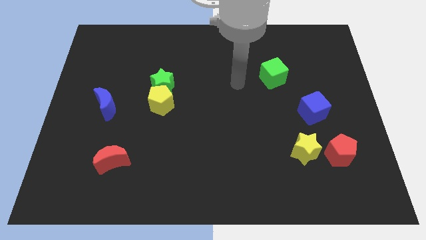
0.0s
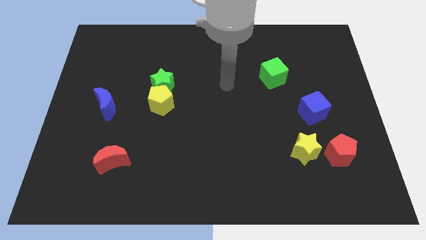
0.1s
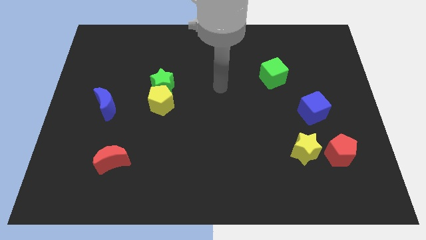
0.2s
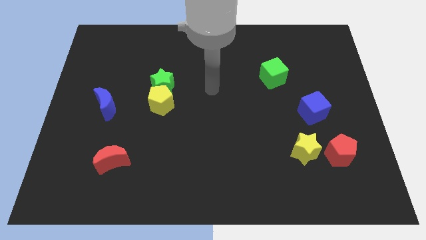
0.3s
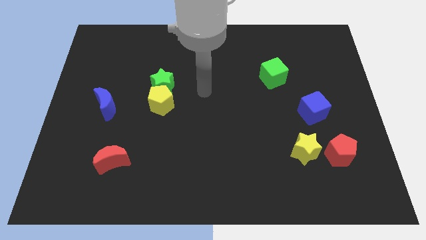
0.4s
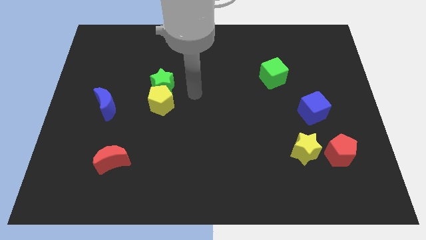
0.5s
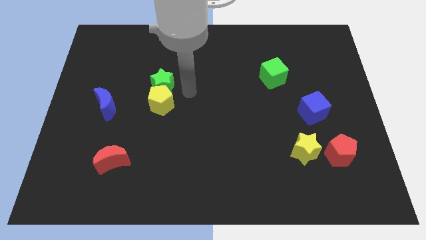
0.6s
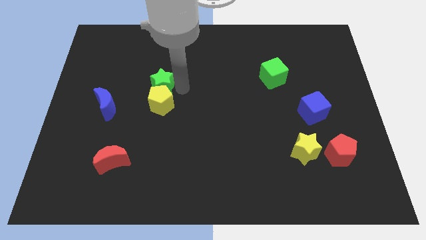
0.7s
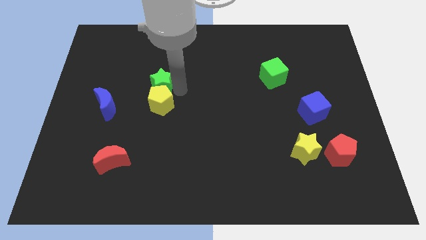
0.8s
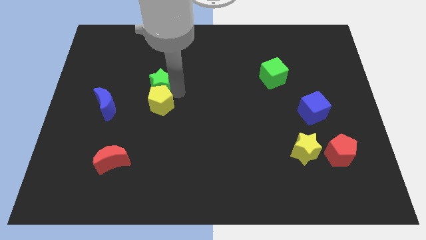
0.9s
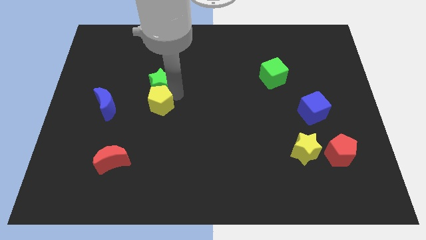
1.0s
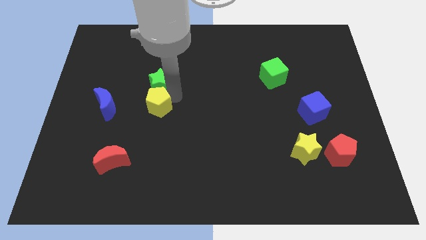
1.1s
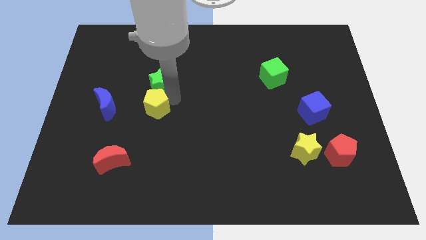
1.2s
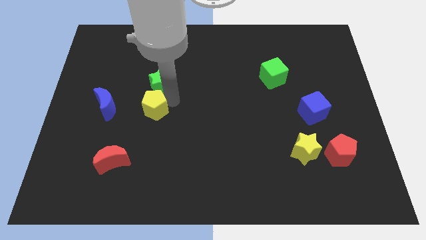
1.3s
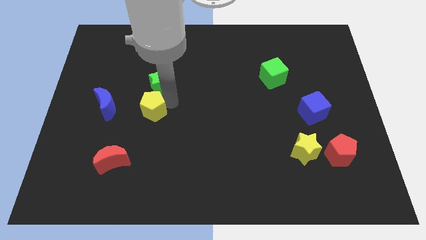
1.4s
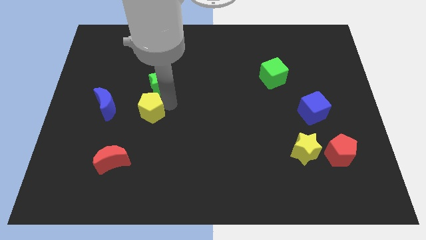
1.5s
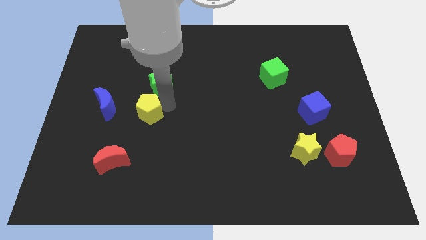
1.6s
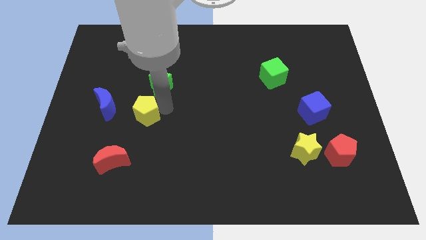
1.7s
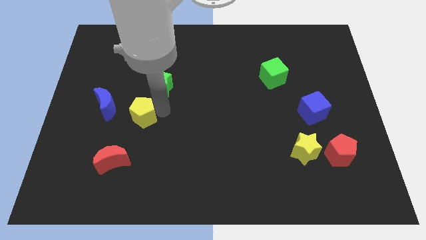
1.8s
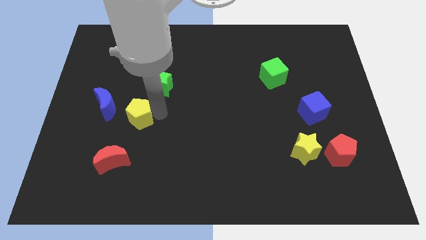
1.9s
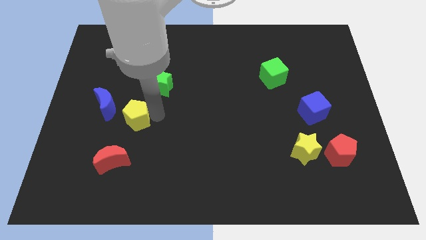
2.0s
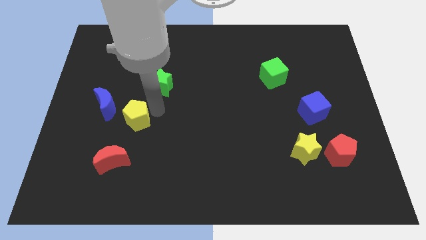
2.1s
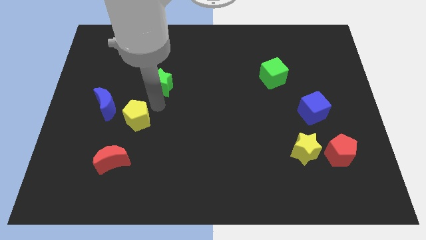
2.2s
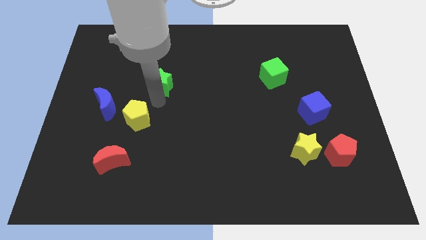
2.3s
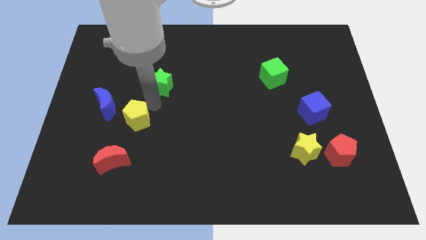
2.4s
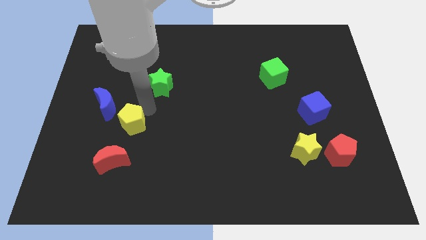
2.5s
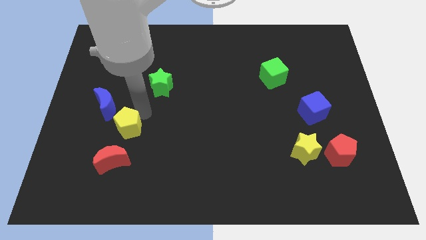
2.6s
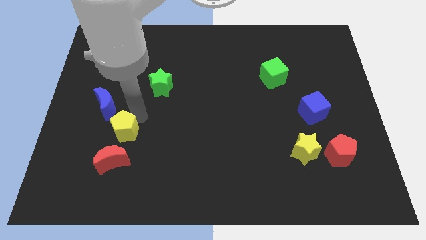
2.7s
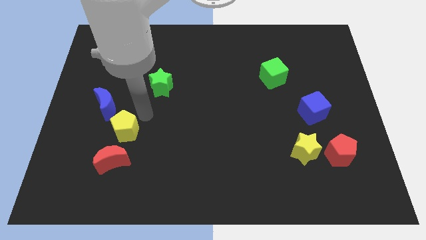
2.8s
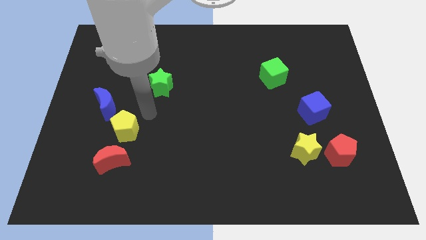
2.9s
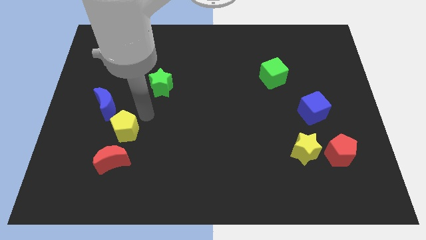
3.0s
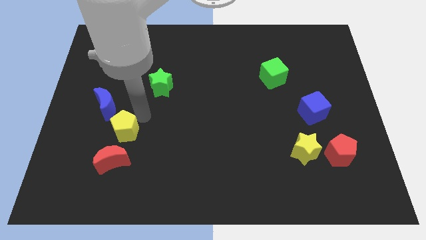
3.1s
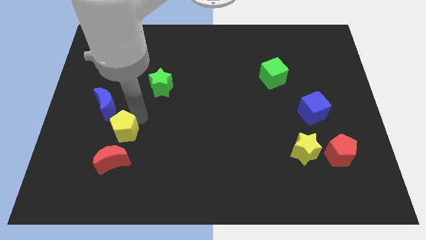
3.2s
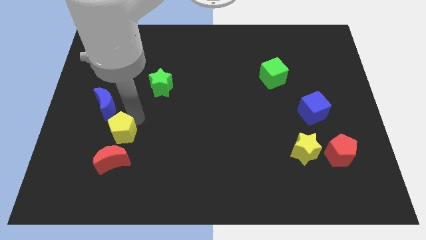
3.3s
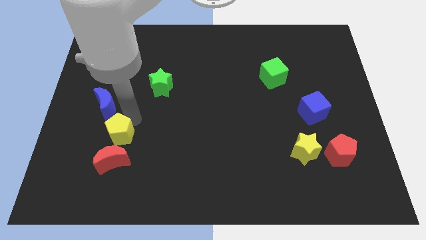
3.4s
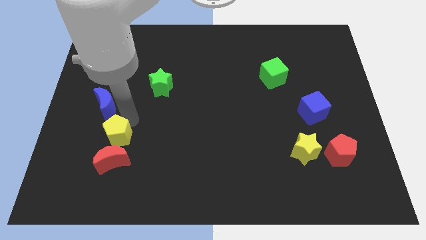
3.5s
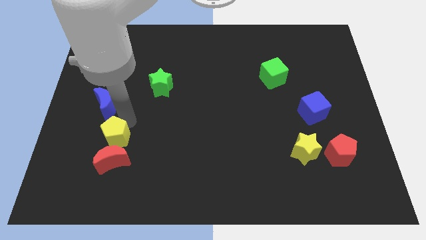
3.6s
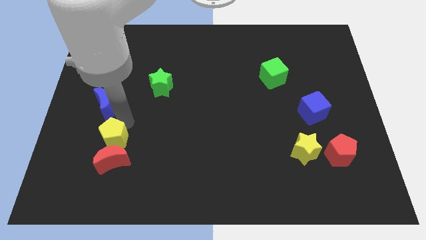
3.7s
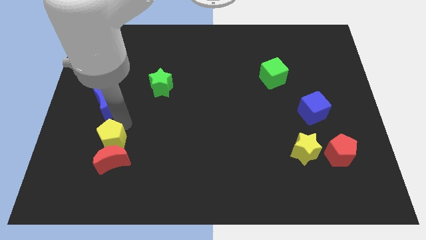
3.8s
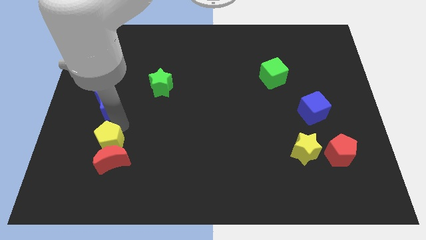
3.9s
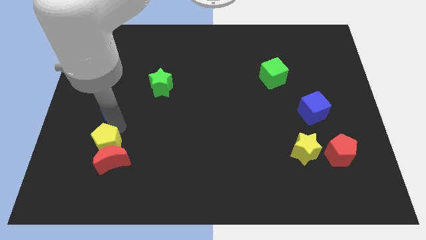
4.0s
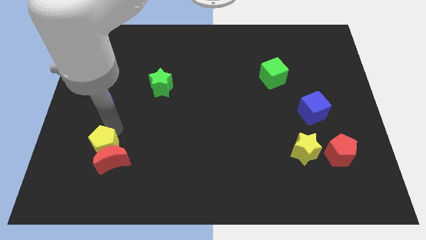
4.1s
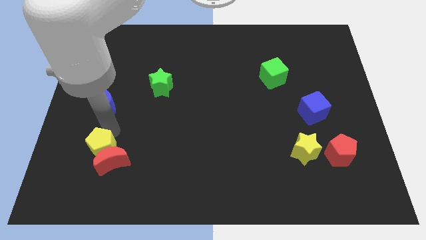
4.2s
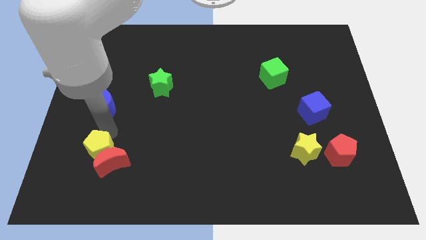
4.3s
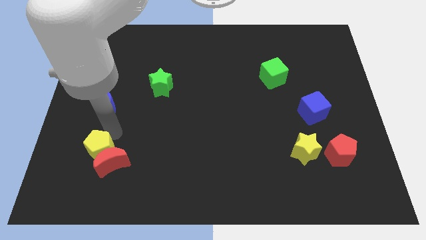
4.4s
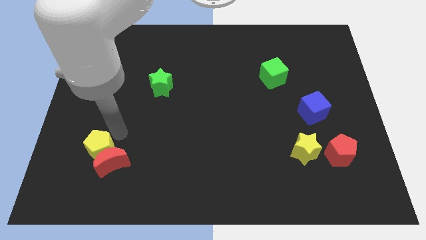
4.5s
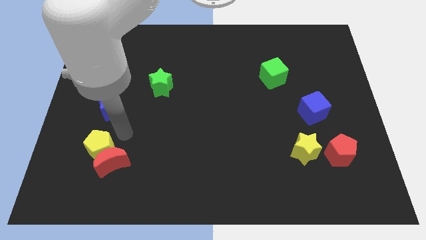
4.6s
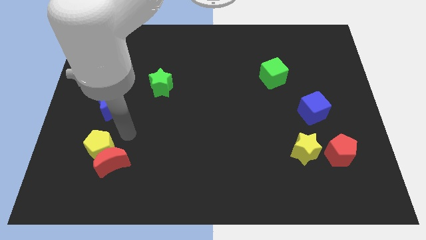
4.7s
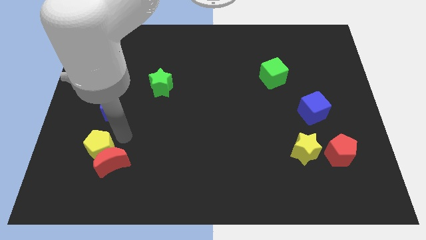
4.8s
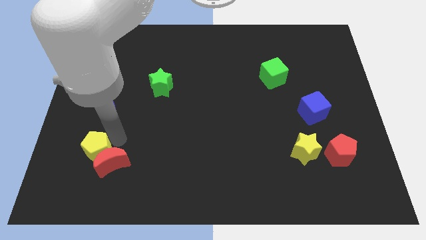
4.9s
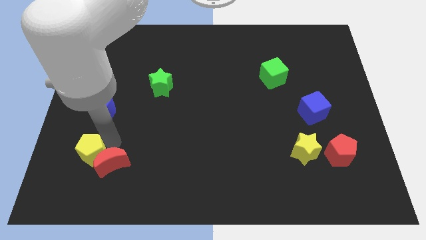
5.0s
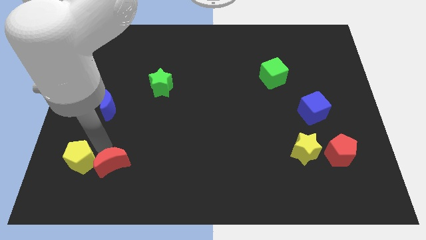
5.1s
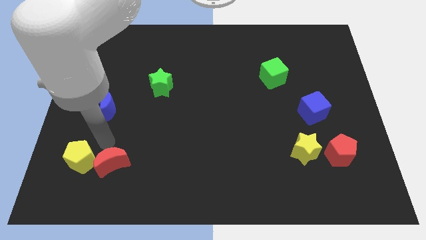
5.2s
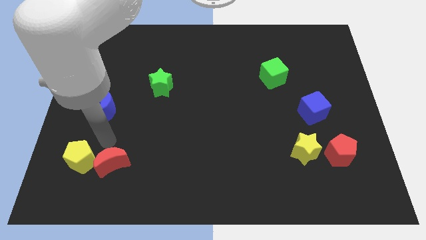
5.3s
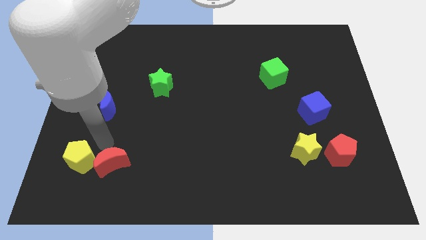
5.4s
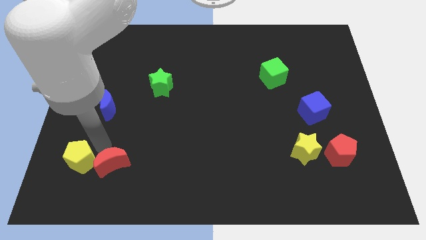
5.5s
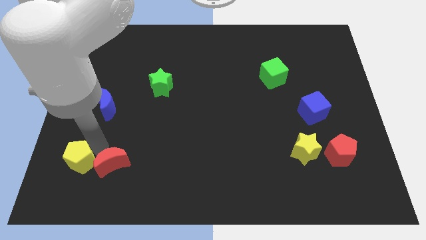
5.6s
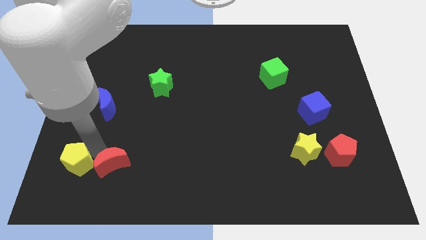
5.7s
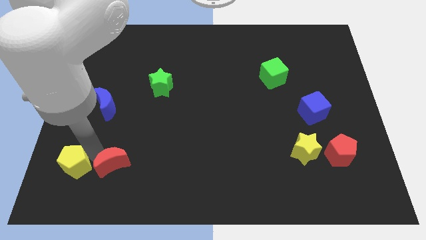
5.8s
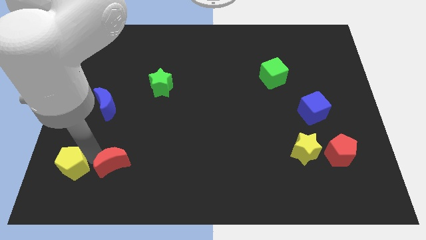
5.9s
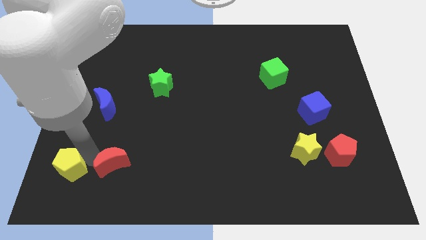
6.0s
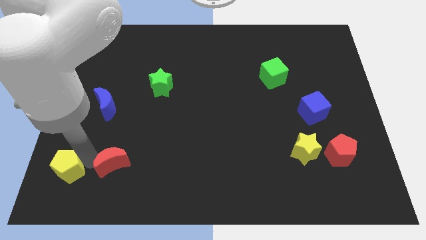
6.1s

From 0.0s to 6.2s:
push the yellow pentagon to the bottom left corner

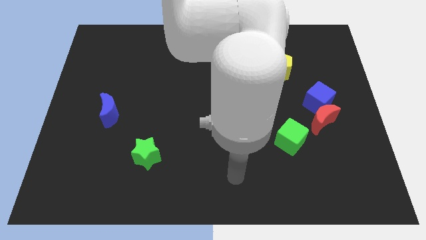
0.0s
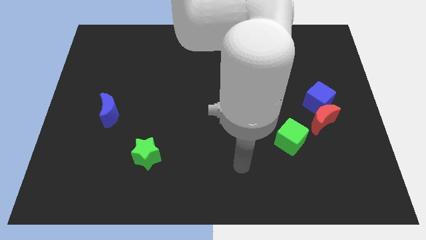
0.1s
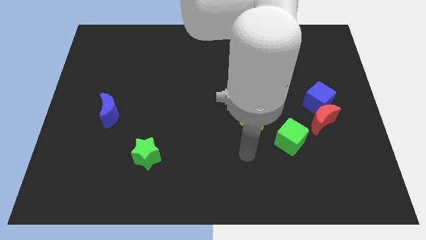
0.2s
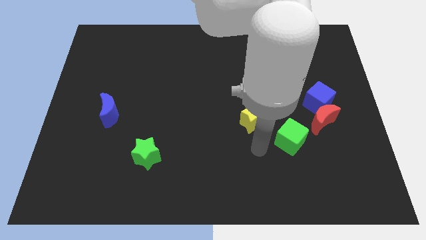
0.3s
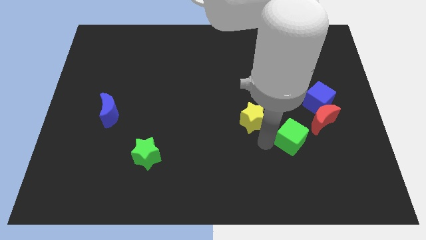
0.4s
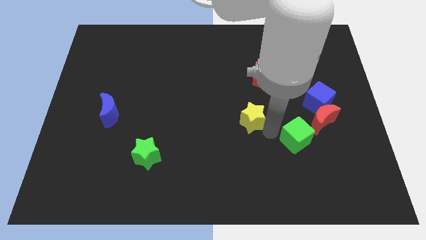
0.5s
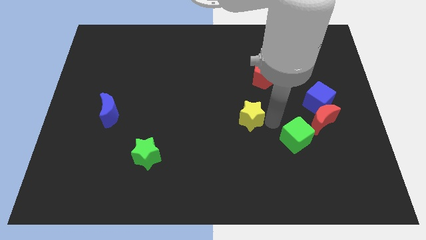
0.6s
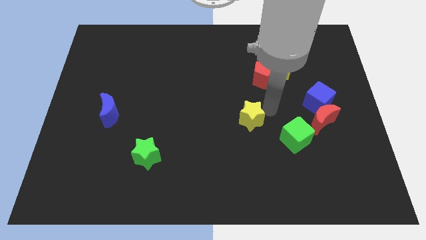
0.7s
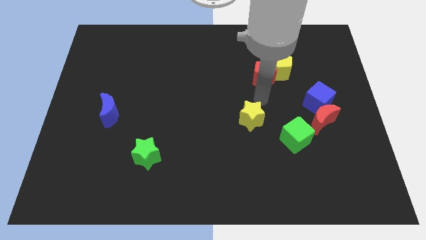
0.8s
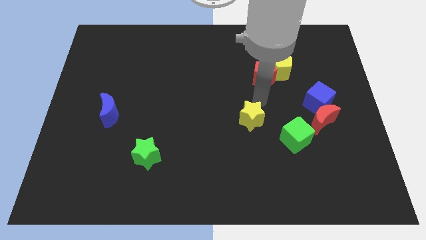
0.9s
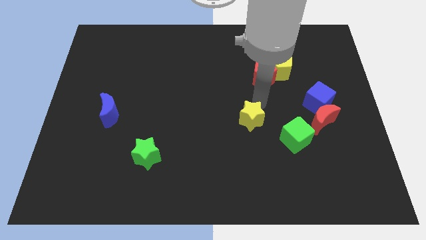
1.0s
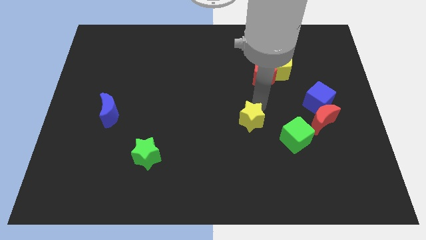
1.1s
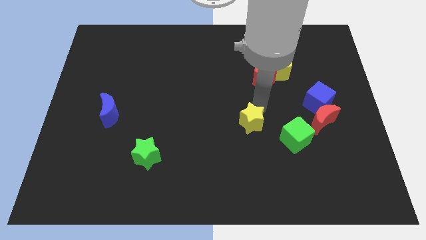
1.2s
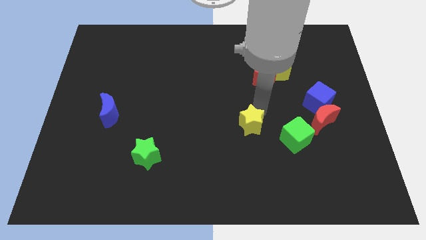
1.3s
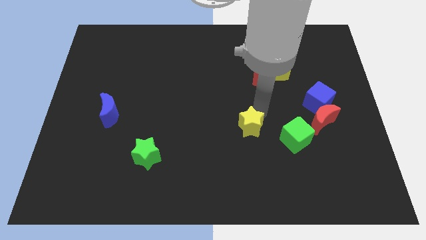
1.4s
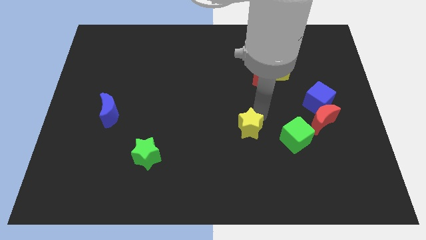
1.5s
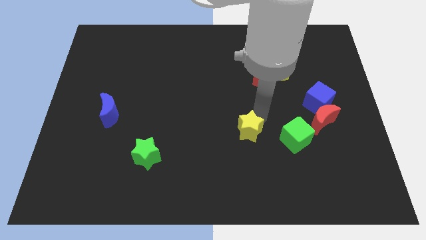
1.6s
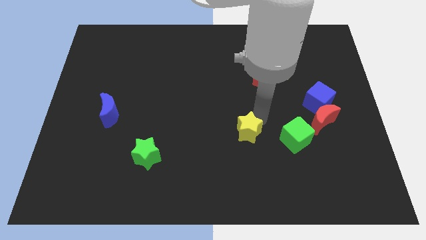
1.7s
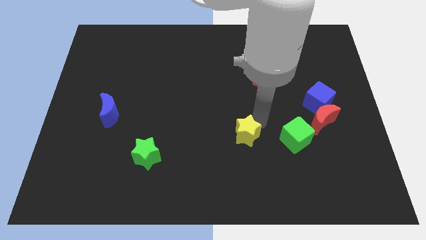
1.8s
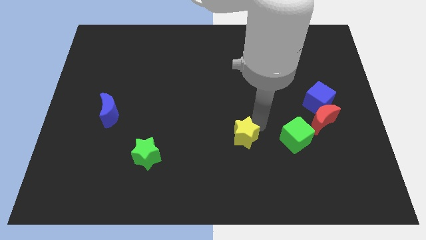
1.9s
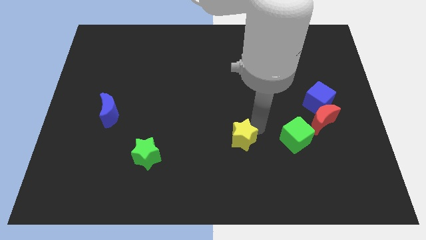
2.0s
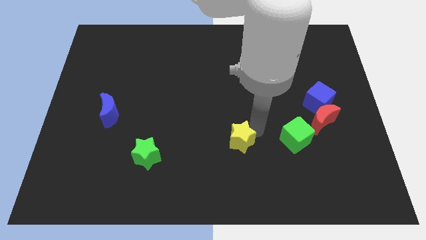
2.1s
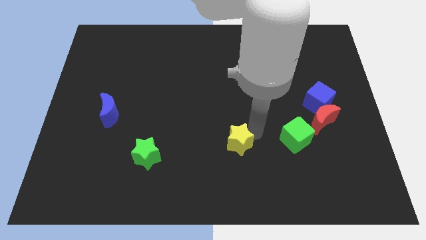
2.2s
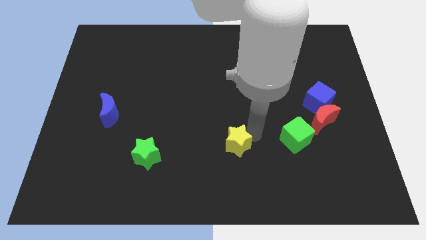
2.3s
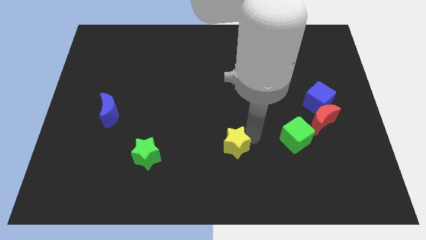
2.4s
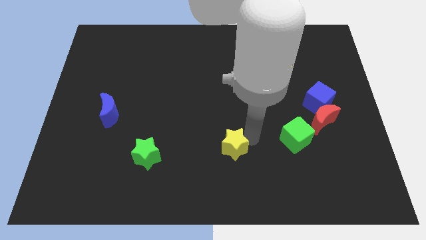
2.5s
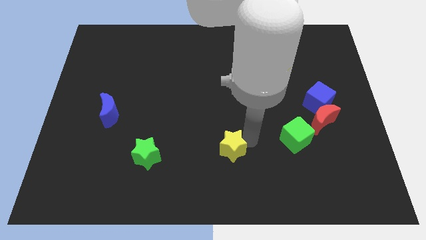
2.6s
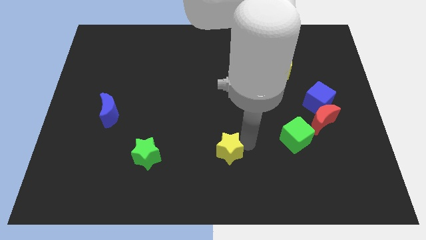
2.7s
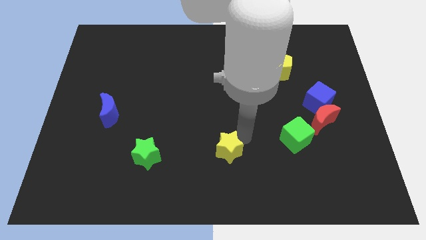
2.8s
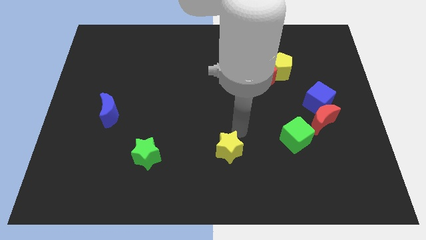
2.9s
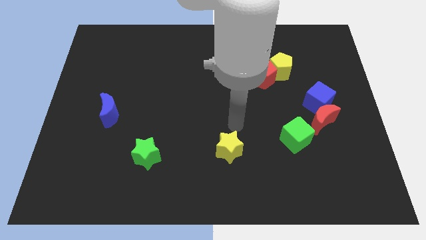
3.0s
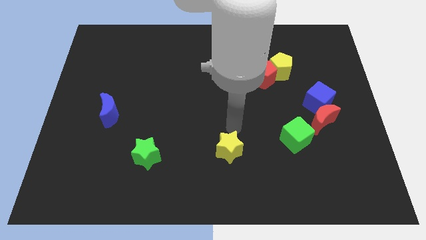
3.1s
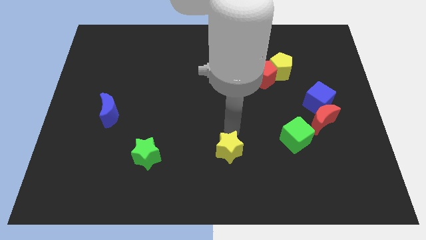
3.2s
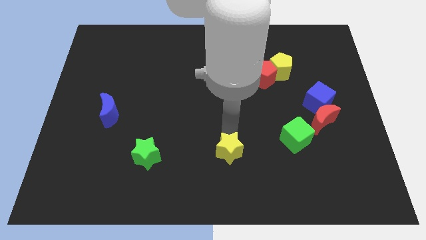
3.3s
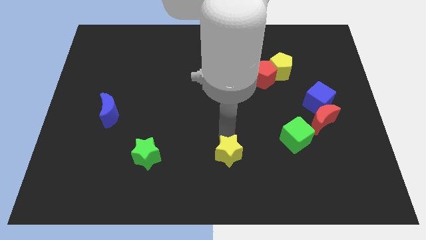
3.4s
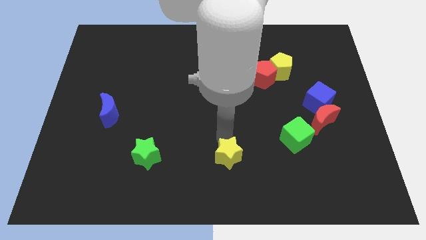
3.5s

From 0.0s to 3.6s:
move the yellow star to the bottom side
